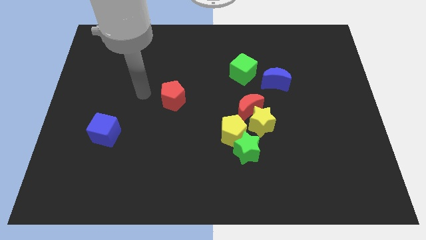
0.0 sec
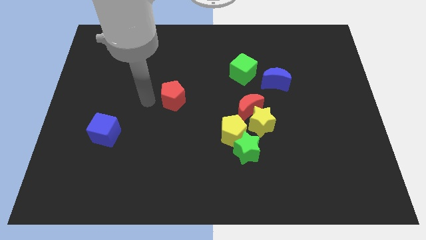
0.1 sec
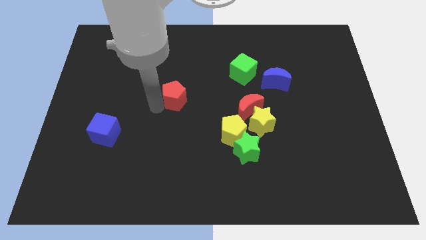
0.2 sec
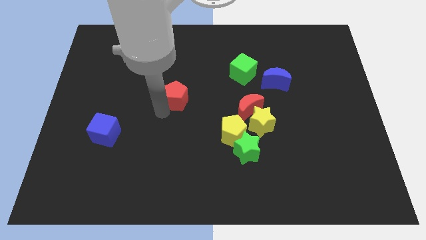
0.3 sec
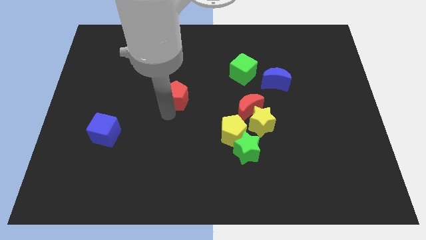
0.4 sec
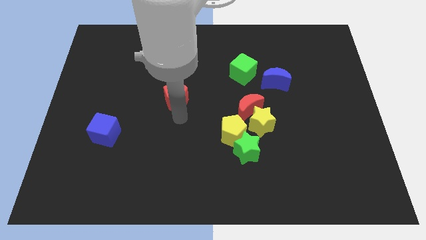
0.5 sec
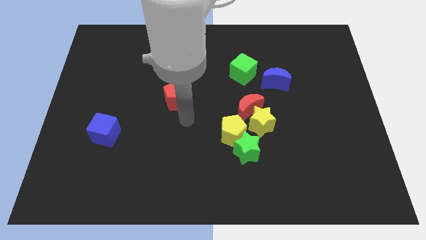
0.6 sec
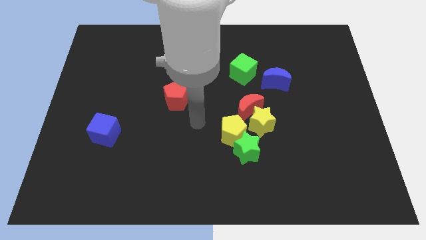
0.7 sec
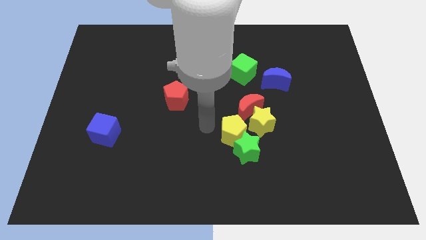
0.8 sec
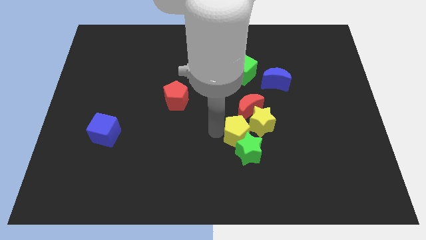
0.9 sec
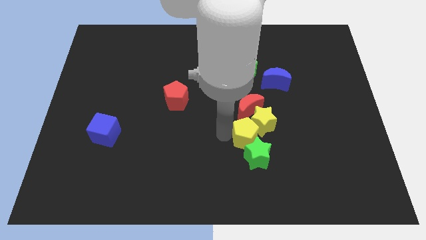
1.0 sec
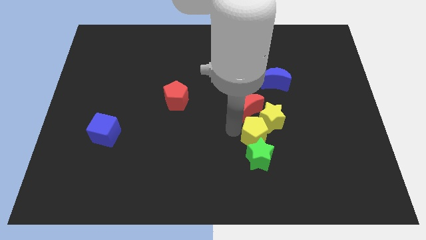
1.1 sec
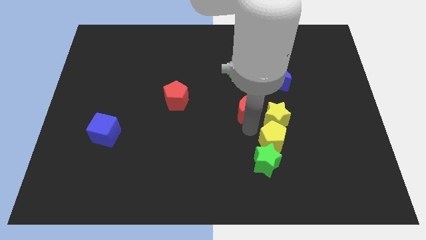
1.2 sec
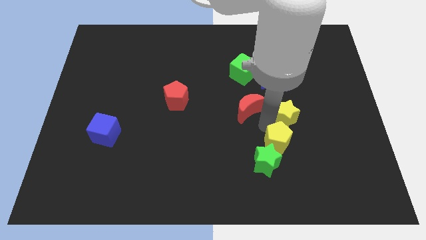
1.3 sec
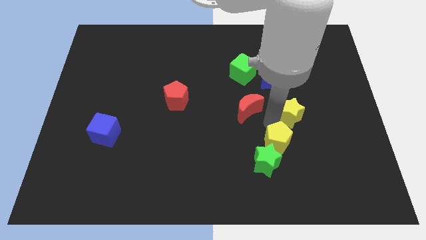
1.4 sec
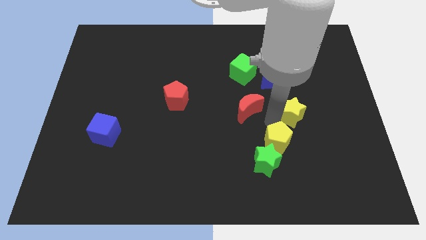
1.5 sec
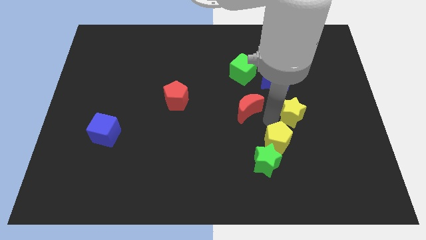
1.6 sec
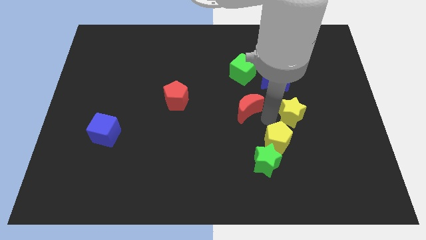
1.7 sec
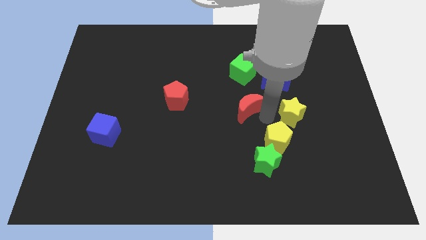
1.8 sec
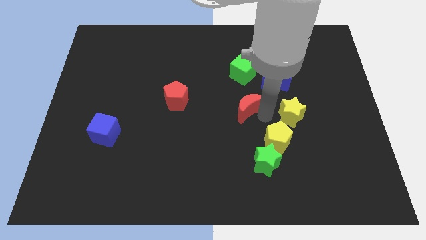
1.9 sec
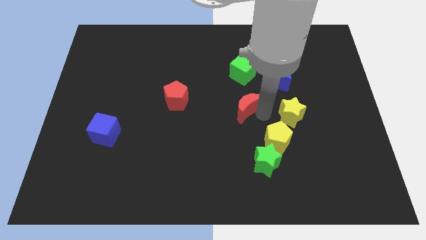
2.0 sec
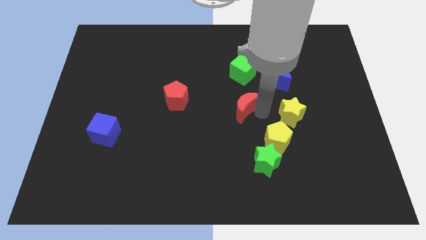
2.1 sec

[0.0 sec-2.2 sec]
pull the red moon apart from the yellow star and yellow pentagon

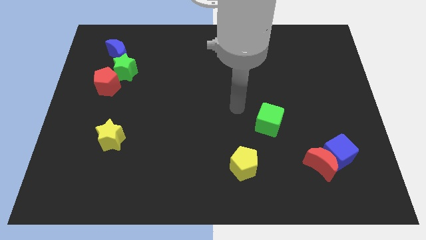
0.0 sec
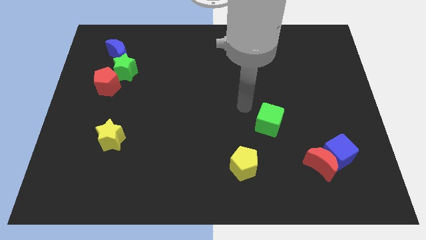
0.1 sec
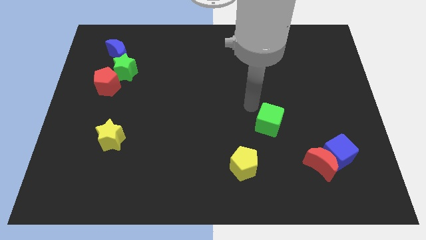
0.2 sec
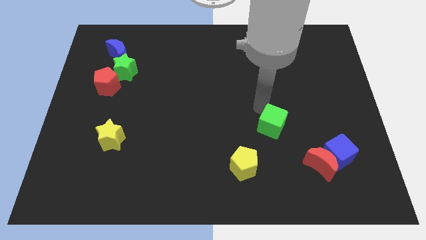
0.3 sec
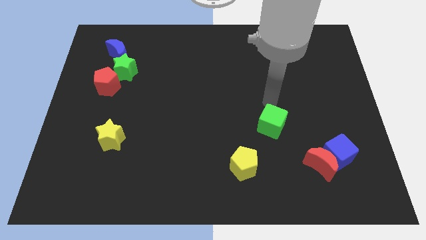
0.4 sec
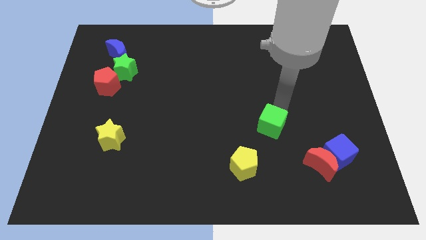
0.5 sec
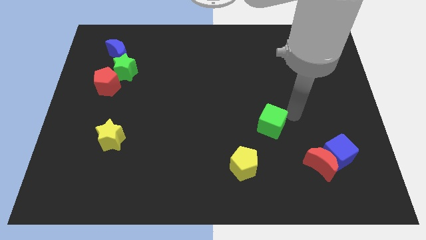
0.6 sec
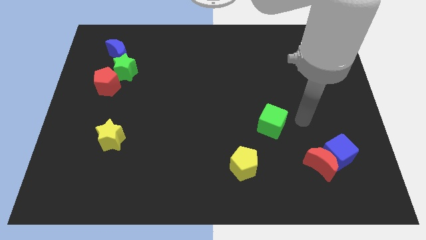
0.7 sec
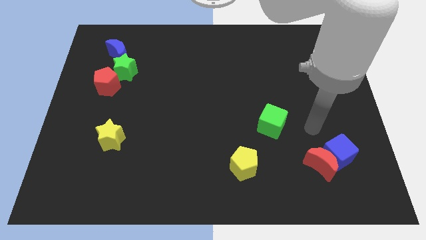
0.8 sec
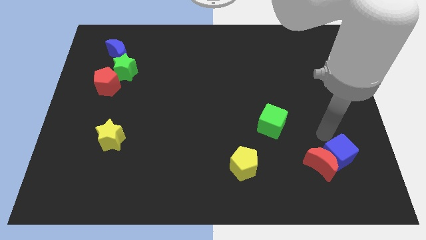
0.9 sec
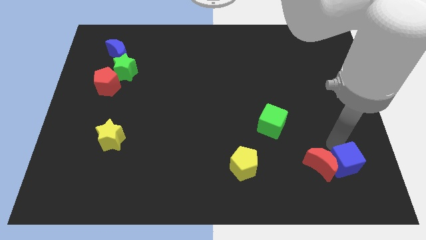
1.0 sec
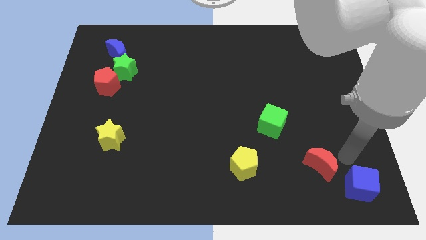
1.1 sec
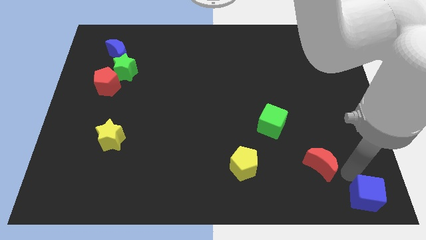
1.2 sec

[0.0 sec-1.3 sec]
move the red moon away from the blue cube

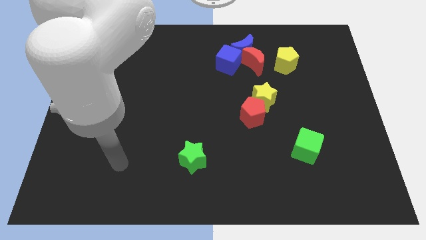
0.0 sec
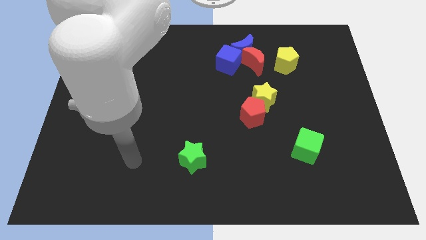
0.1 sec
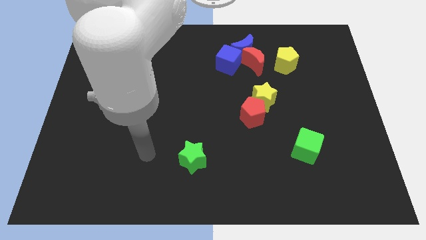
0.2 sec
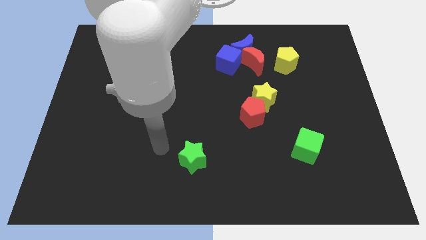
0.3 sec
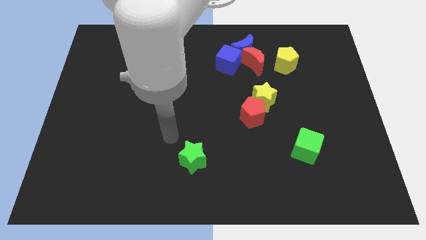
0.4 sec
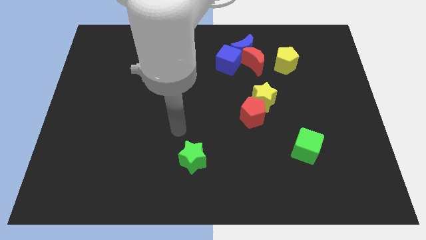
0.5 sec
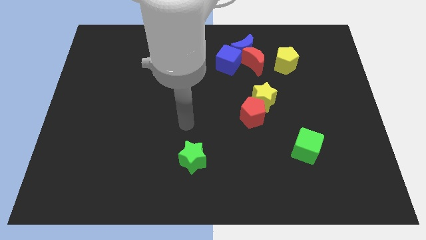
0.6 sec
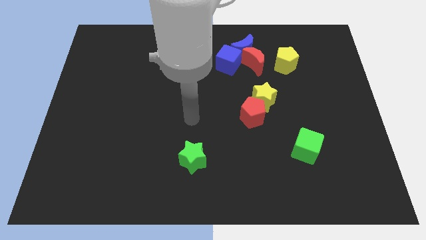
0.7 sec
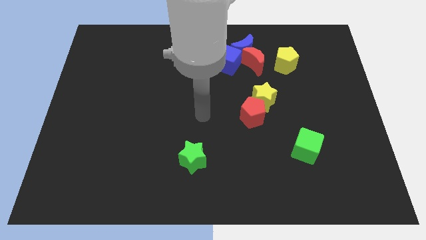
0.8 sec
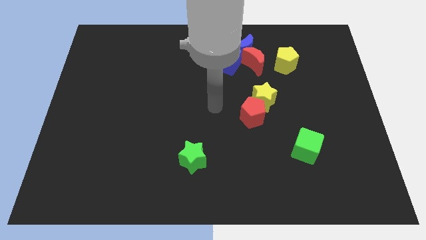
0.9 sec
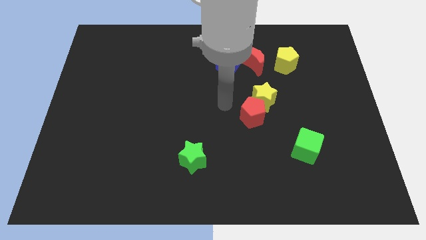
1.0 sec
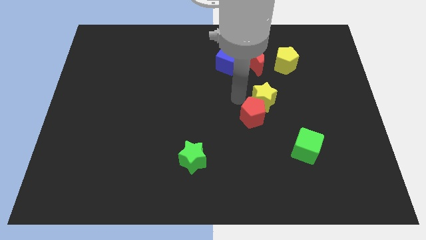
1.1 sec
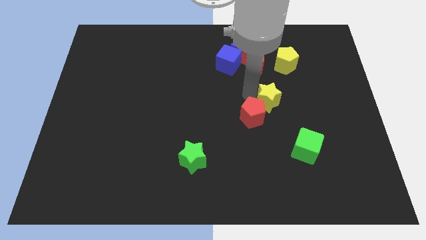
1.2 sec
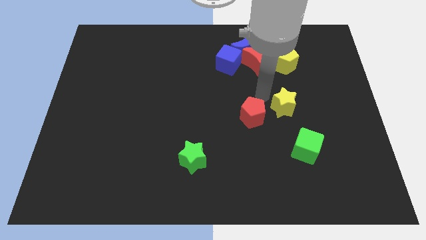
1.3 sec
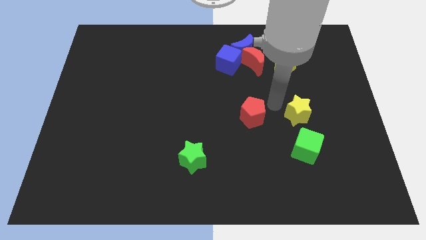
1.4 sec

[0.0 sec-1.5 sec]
pull the red pentagon apart from the yellow star

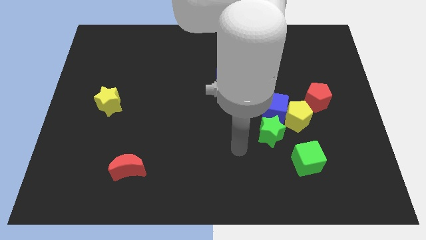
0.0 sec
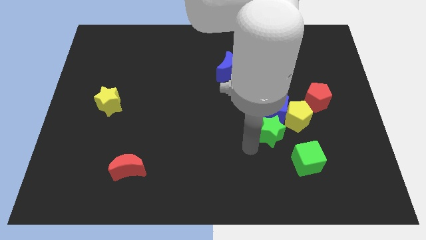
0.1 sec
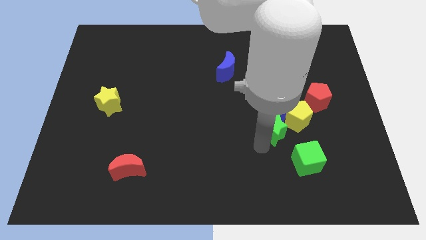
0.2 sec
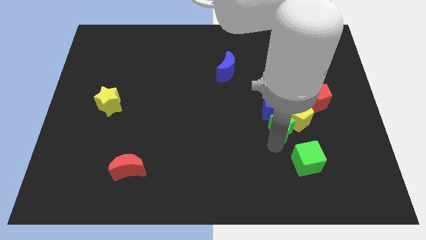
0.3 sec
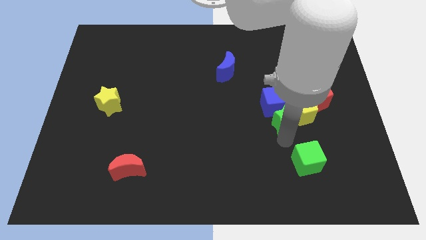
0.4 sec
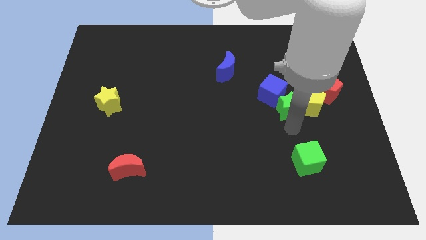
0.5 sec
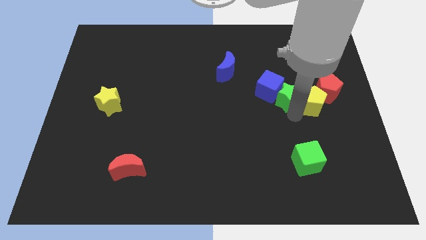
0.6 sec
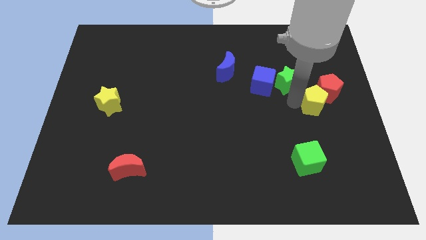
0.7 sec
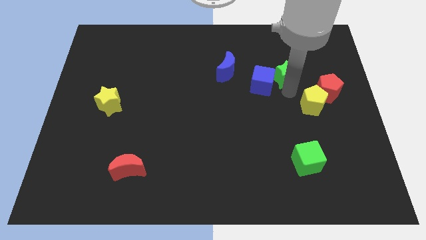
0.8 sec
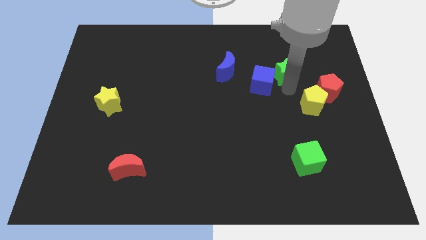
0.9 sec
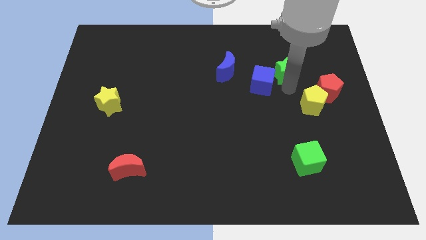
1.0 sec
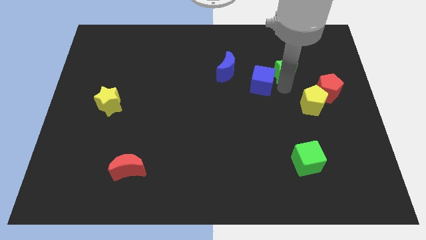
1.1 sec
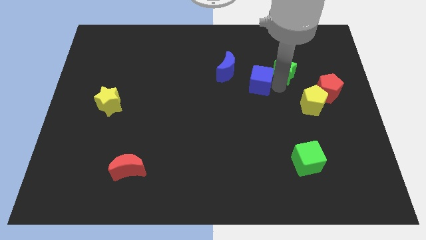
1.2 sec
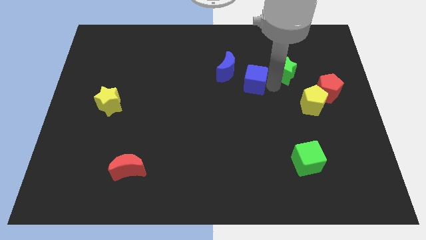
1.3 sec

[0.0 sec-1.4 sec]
pull the blue cube apart from the yellow pentagon and green star

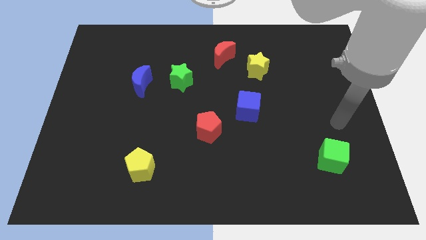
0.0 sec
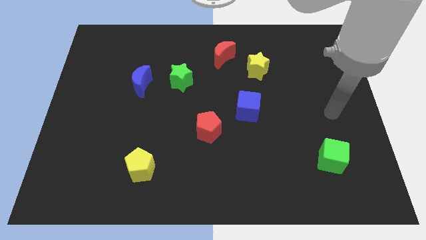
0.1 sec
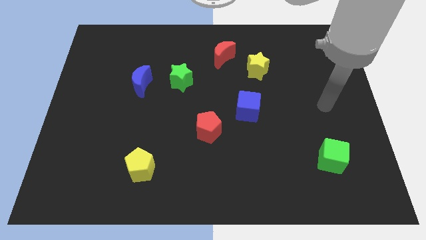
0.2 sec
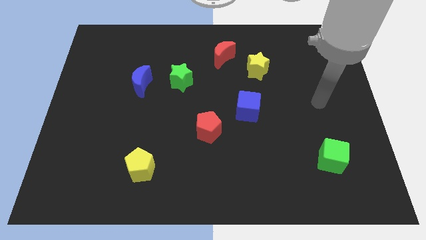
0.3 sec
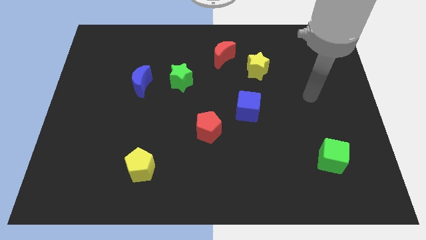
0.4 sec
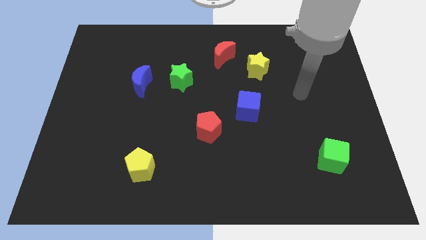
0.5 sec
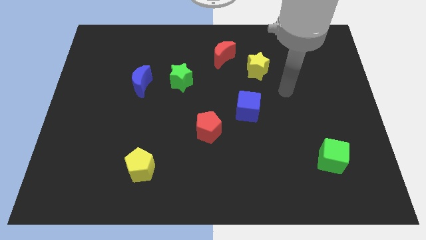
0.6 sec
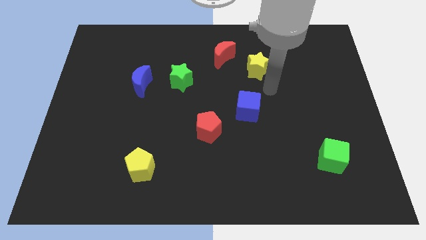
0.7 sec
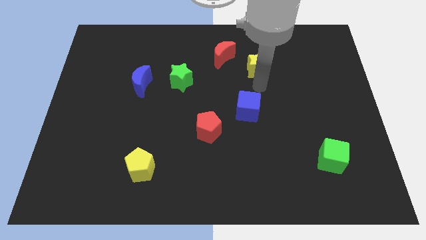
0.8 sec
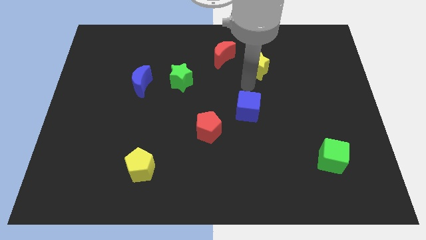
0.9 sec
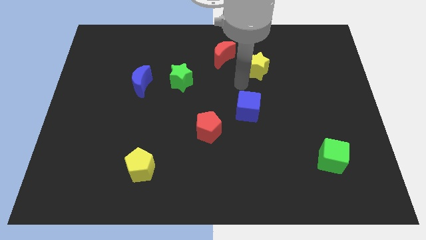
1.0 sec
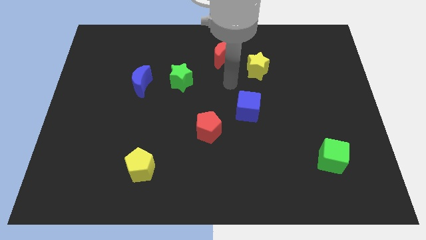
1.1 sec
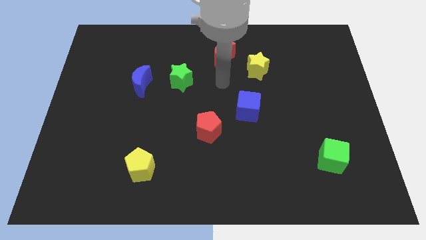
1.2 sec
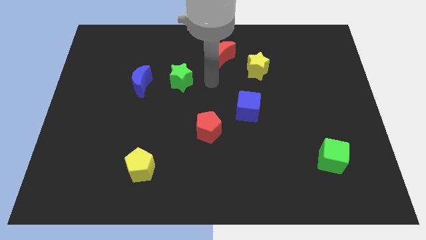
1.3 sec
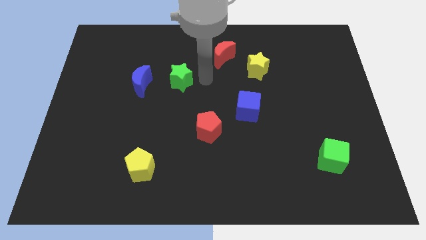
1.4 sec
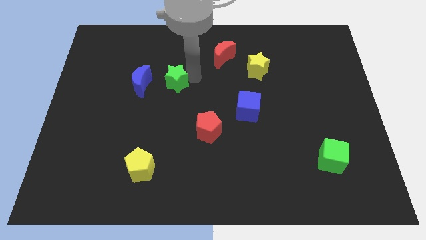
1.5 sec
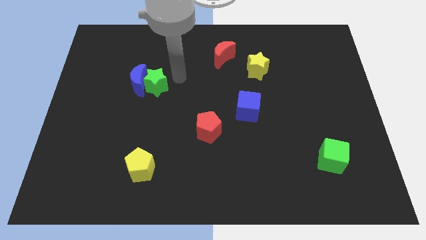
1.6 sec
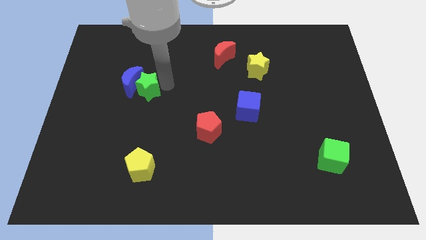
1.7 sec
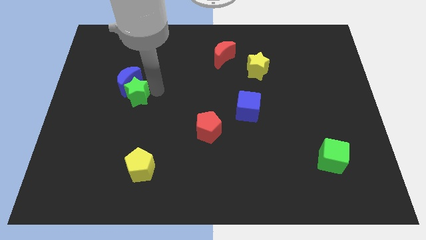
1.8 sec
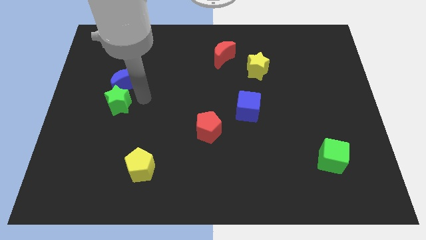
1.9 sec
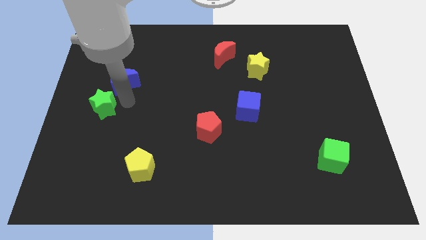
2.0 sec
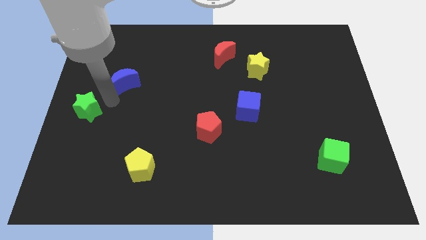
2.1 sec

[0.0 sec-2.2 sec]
move the blue moon away from the green star

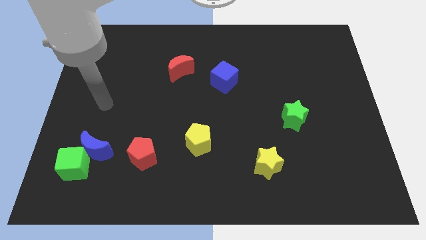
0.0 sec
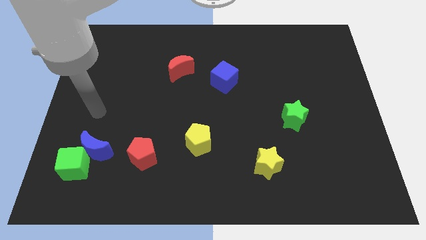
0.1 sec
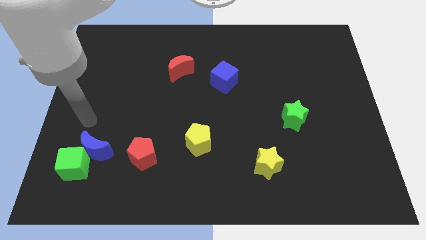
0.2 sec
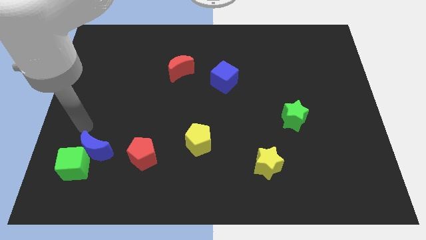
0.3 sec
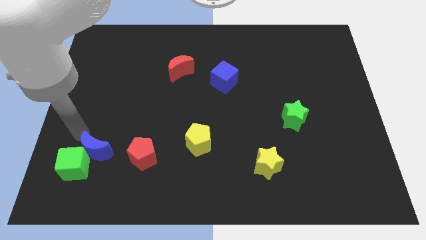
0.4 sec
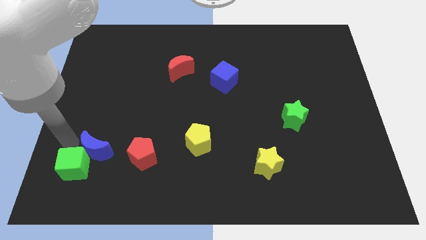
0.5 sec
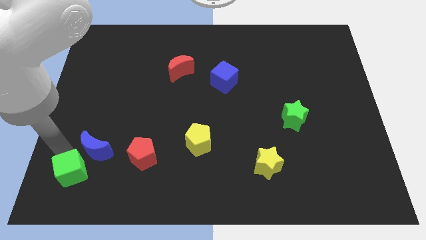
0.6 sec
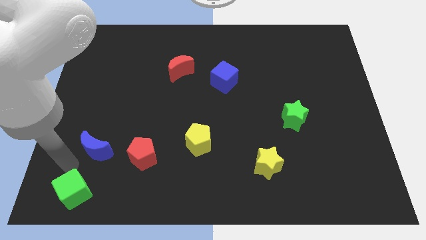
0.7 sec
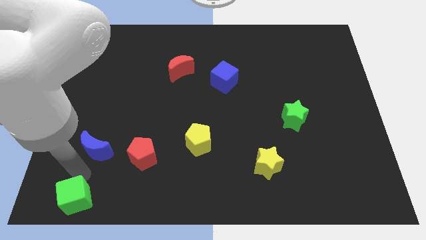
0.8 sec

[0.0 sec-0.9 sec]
separate the blue moon from the green cube
